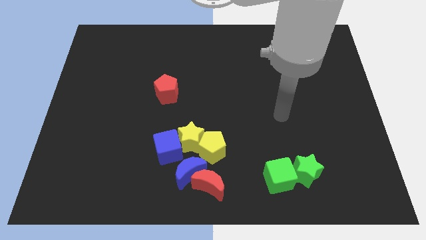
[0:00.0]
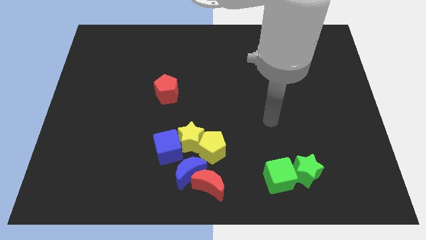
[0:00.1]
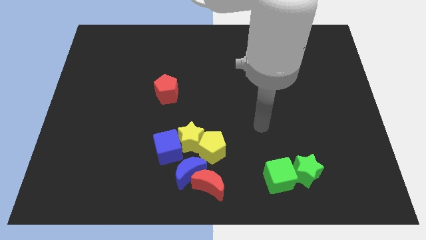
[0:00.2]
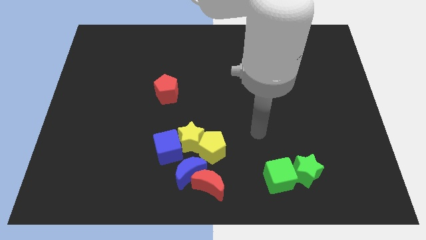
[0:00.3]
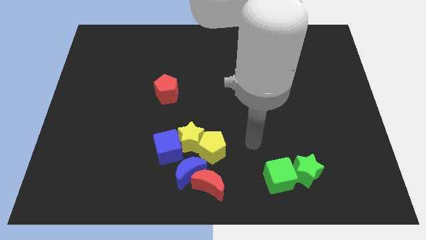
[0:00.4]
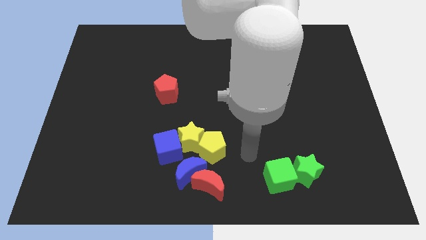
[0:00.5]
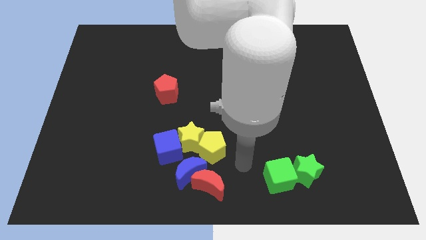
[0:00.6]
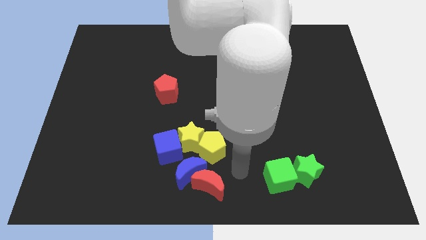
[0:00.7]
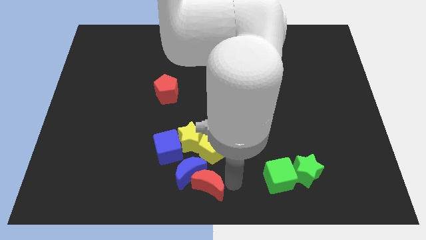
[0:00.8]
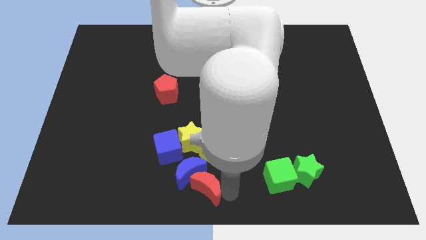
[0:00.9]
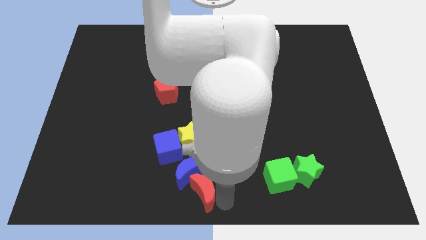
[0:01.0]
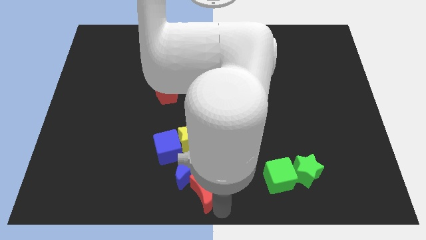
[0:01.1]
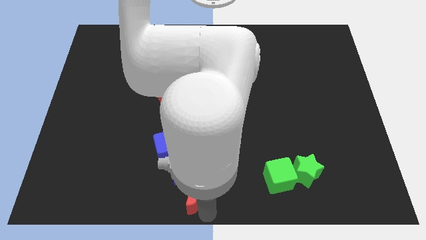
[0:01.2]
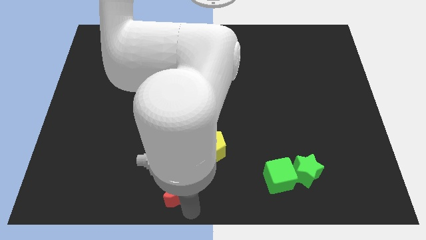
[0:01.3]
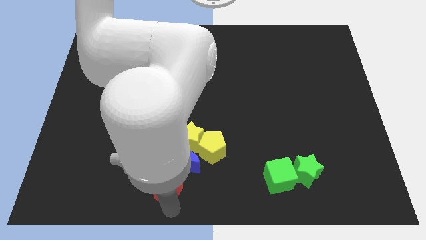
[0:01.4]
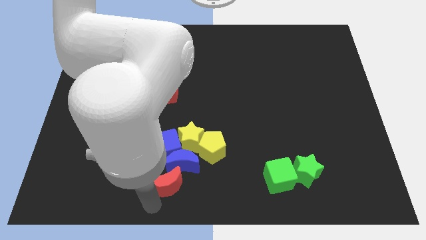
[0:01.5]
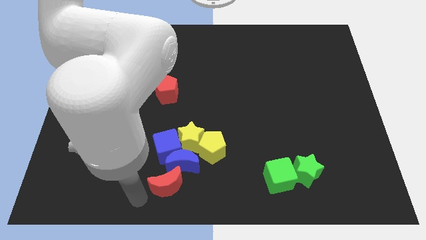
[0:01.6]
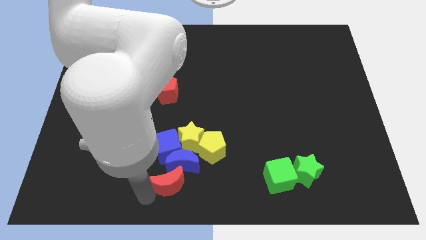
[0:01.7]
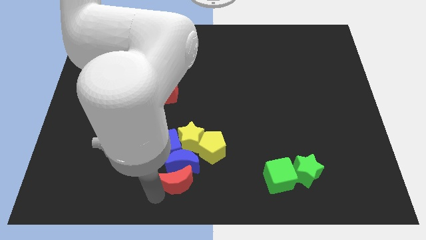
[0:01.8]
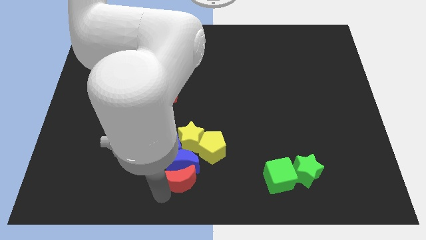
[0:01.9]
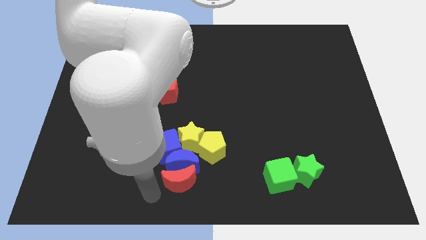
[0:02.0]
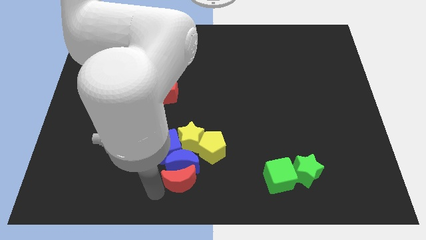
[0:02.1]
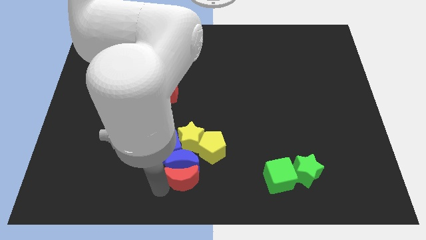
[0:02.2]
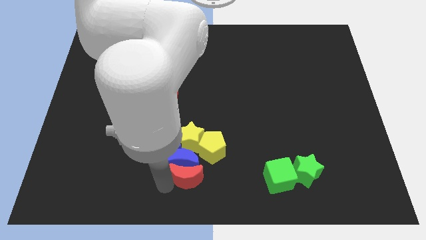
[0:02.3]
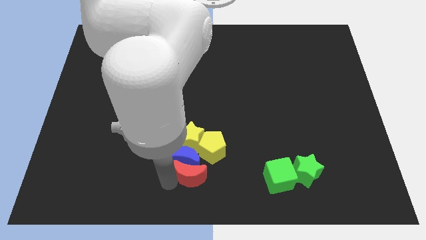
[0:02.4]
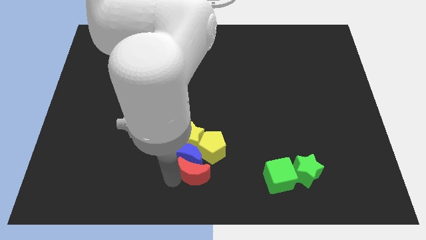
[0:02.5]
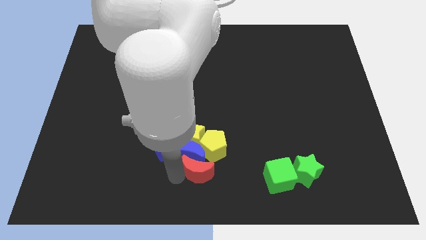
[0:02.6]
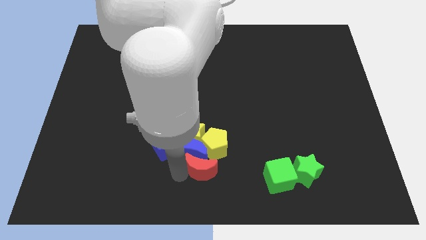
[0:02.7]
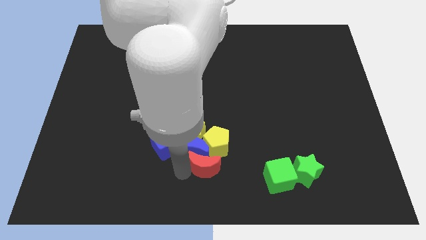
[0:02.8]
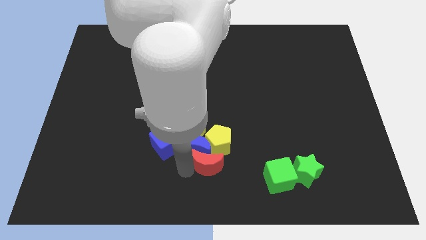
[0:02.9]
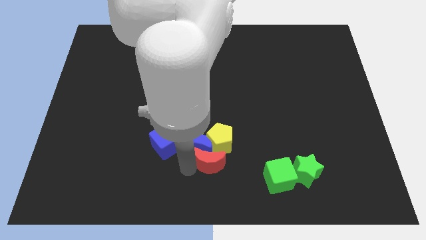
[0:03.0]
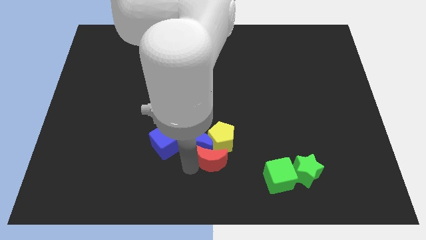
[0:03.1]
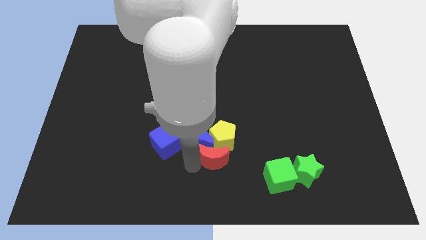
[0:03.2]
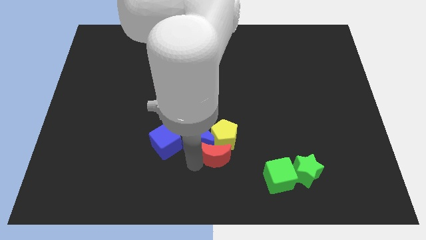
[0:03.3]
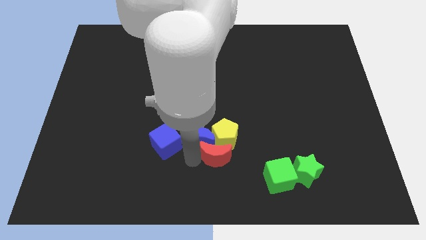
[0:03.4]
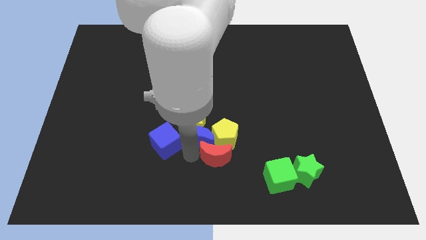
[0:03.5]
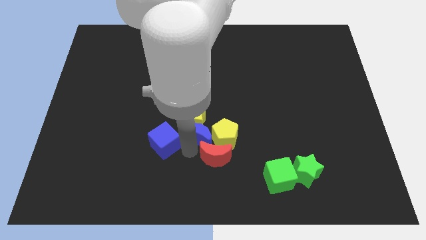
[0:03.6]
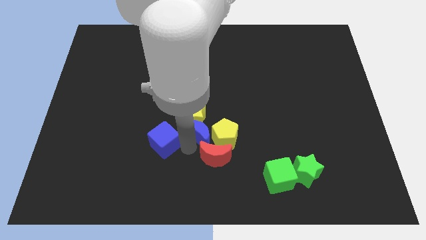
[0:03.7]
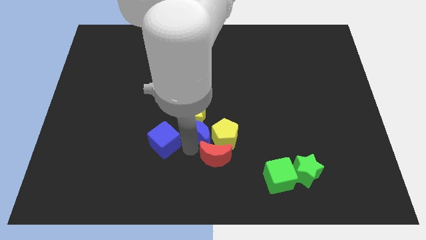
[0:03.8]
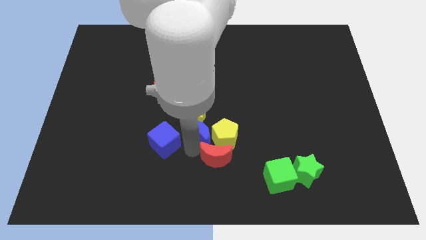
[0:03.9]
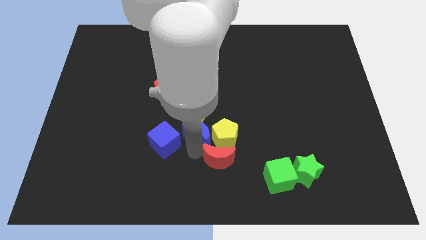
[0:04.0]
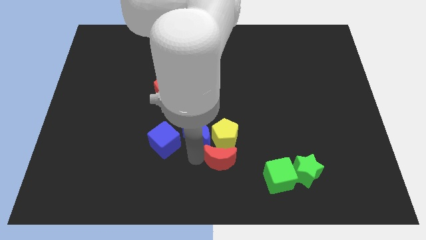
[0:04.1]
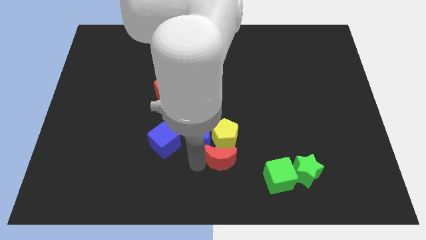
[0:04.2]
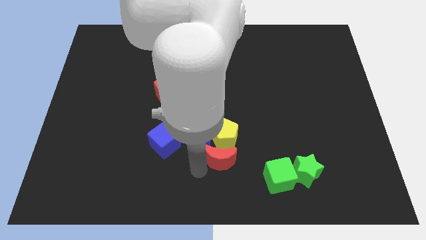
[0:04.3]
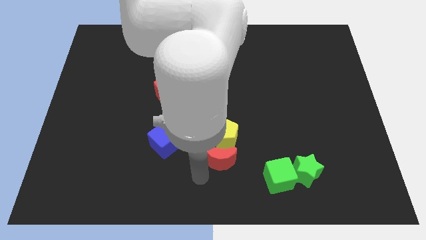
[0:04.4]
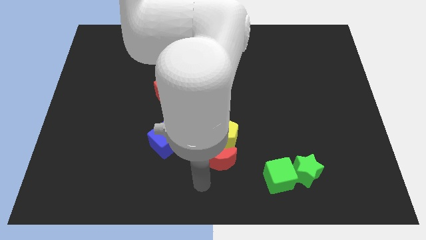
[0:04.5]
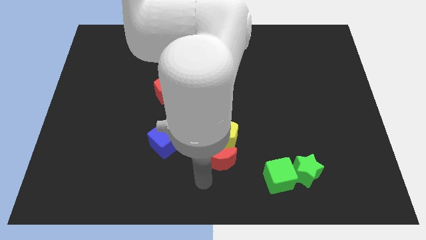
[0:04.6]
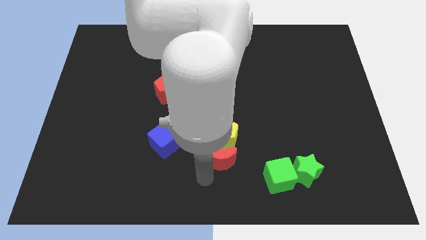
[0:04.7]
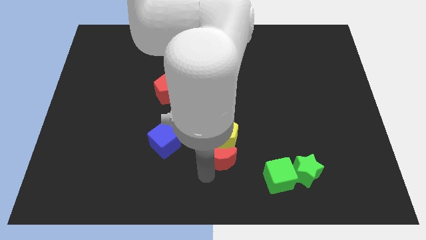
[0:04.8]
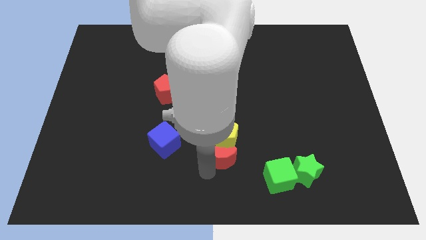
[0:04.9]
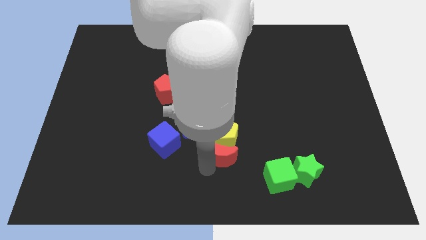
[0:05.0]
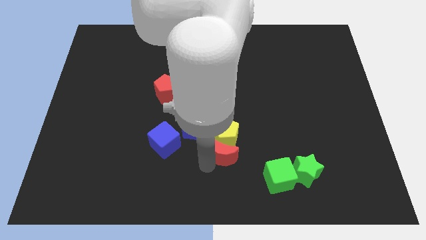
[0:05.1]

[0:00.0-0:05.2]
push the red moon somewhat upwards

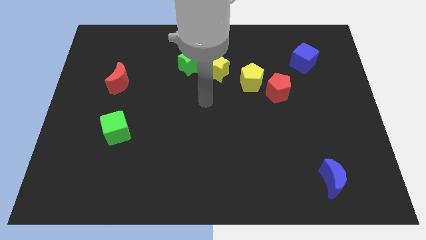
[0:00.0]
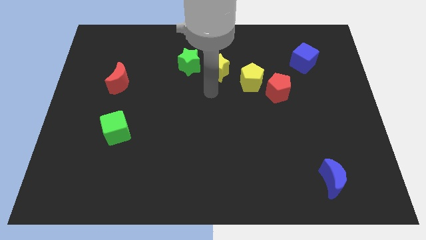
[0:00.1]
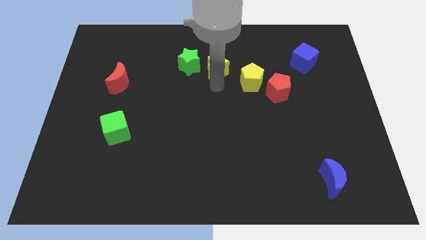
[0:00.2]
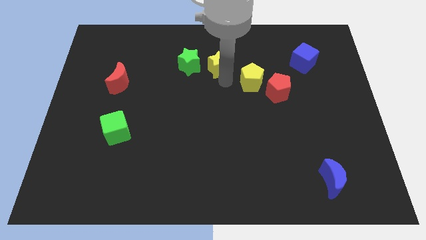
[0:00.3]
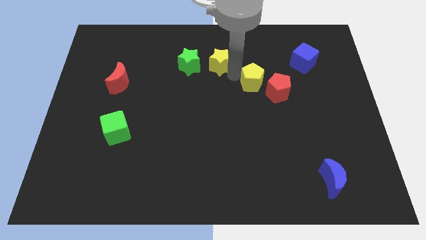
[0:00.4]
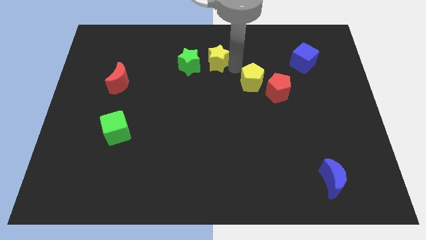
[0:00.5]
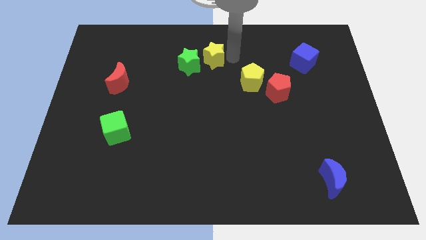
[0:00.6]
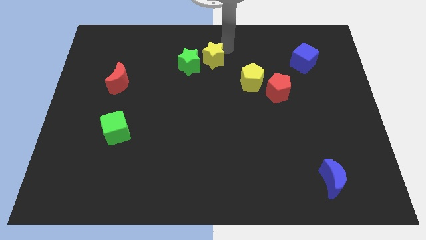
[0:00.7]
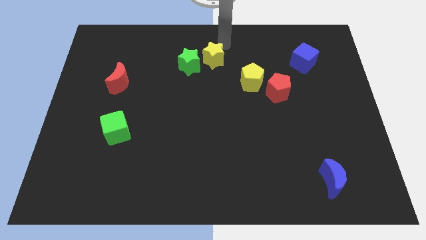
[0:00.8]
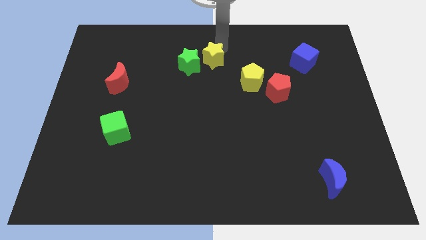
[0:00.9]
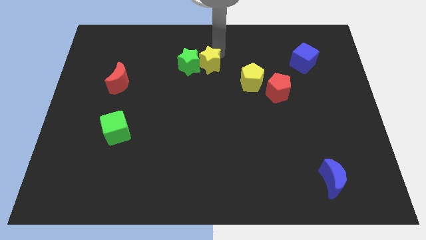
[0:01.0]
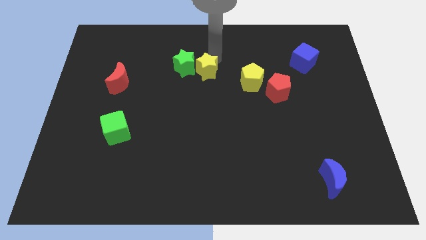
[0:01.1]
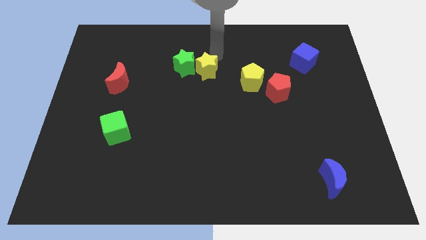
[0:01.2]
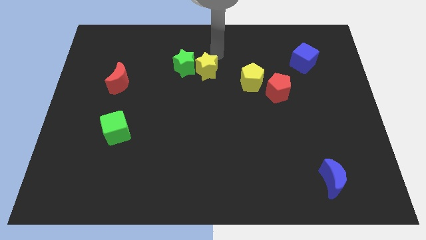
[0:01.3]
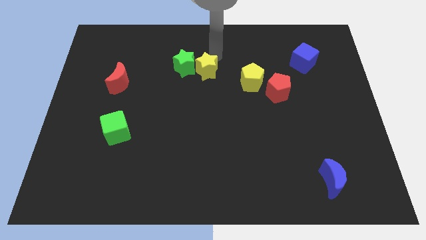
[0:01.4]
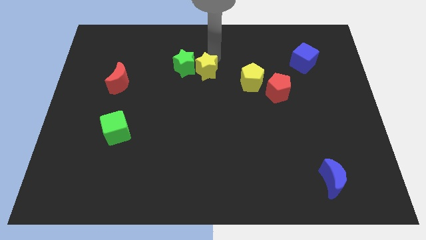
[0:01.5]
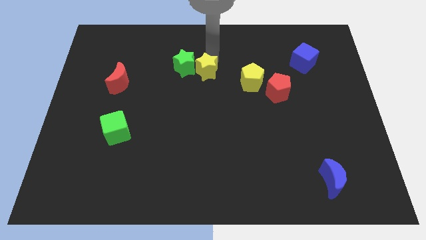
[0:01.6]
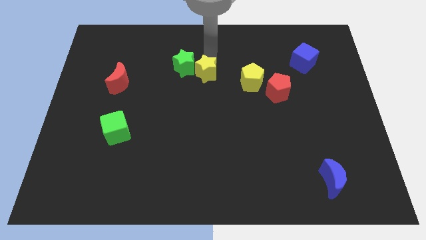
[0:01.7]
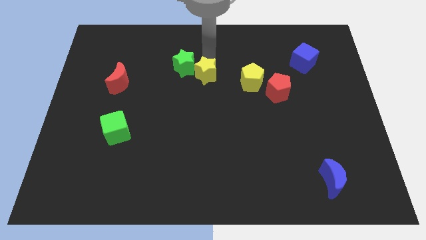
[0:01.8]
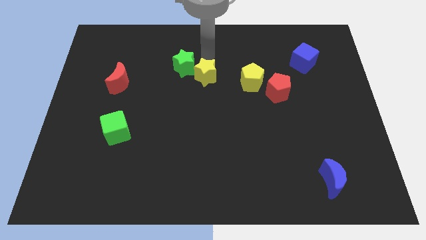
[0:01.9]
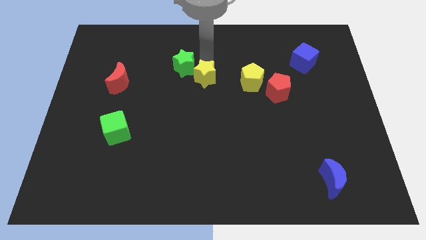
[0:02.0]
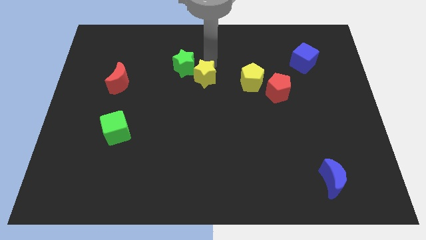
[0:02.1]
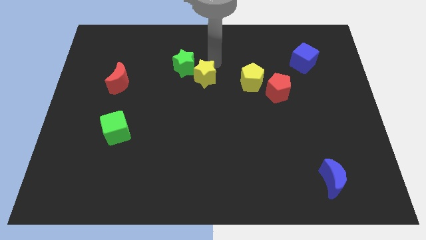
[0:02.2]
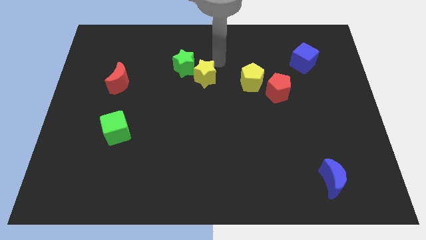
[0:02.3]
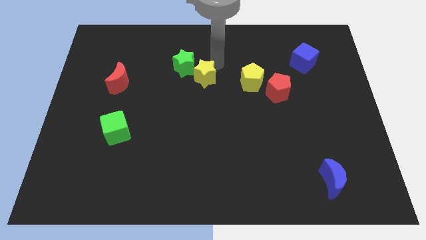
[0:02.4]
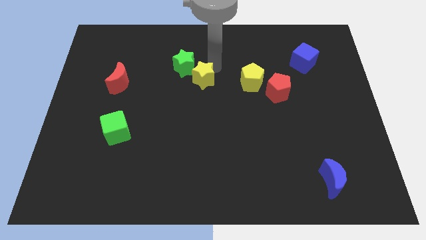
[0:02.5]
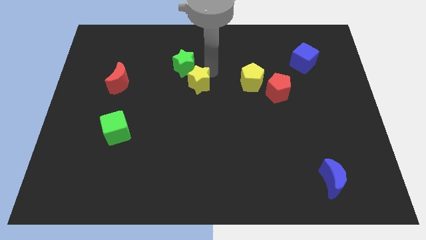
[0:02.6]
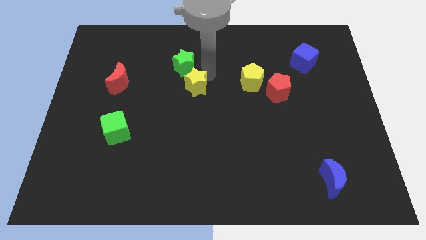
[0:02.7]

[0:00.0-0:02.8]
move the yellow star a bit diagonally down and to the left

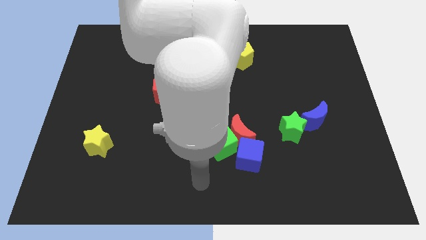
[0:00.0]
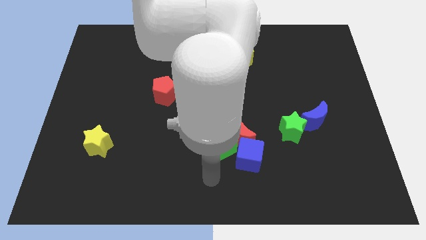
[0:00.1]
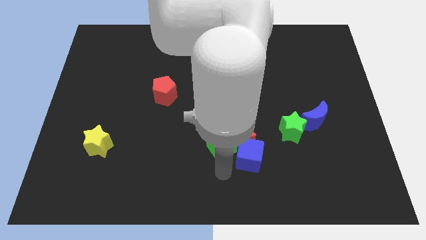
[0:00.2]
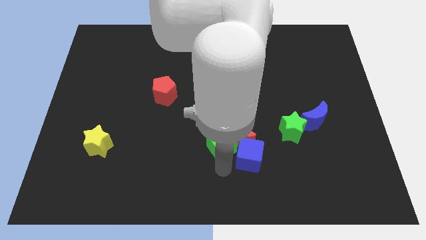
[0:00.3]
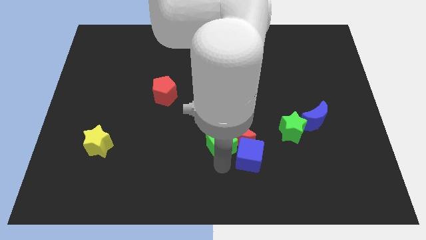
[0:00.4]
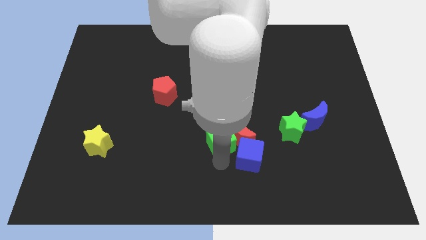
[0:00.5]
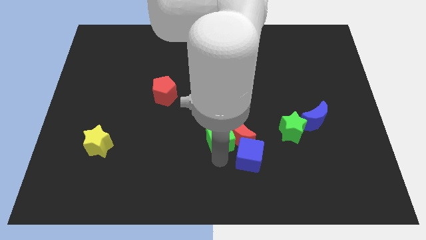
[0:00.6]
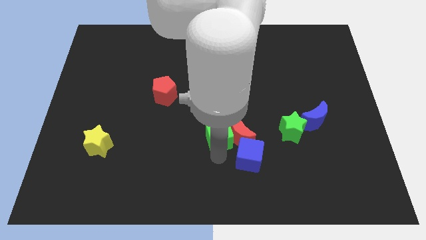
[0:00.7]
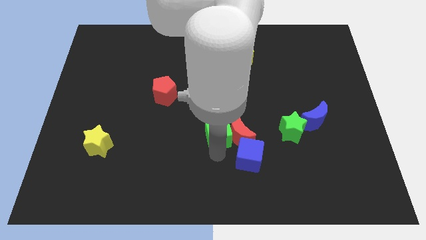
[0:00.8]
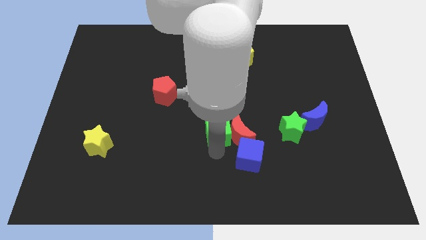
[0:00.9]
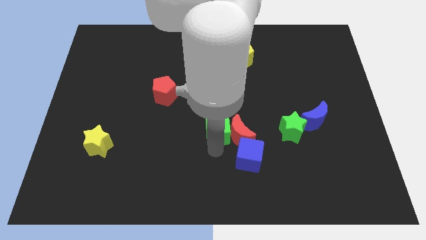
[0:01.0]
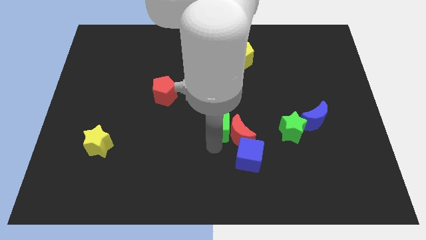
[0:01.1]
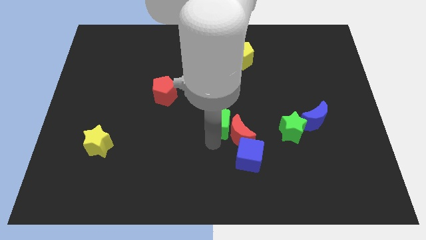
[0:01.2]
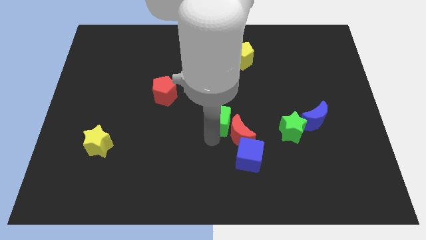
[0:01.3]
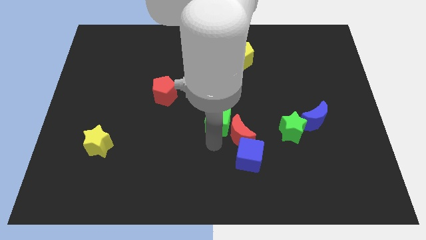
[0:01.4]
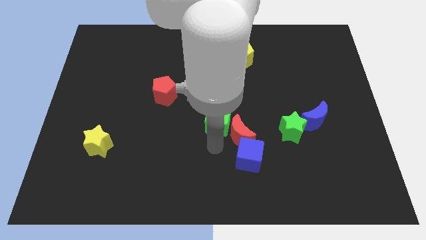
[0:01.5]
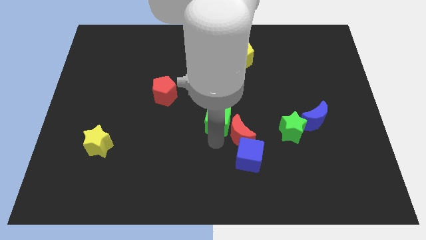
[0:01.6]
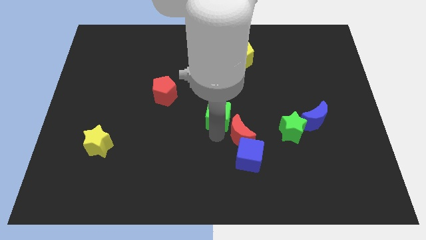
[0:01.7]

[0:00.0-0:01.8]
push the green cube upwards slightly
